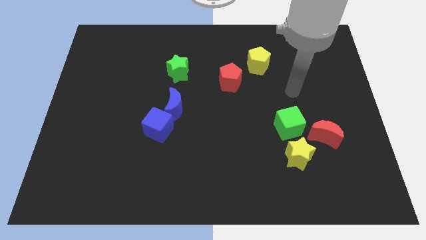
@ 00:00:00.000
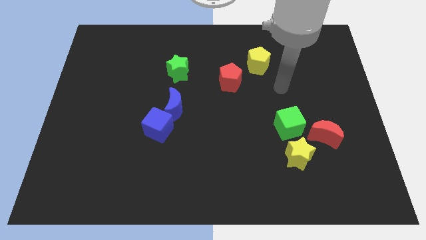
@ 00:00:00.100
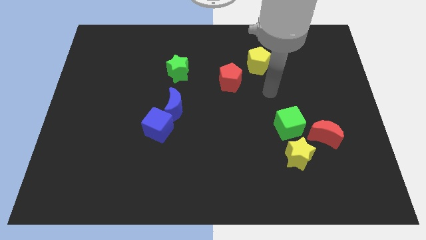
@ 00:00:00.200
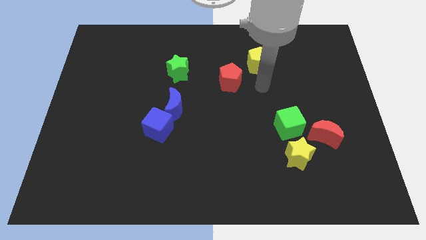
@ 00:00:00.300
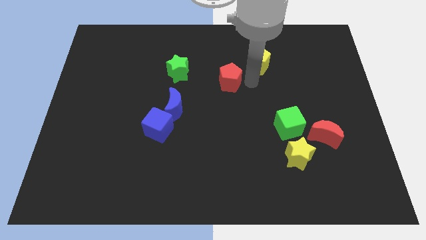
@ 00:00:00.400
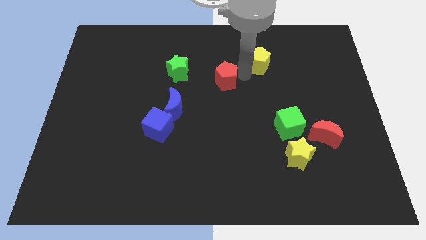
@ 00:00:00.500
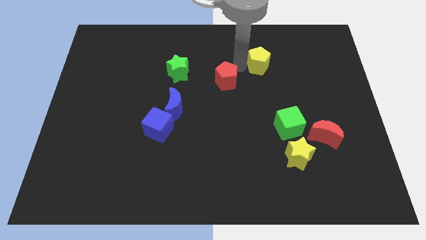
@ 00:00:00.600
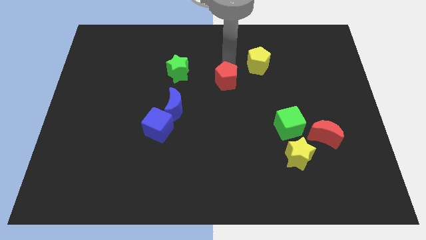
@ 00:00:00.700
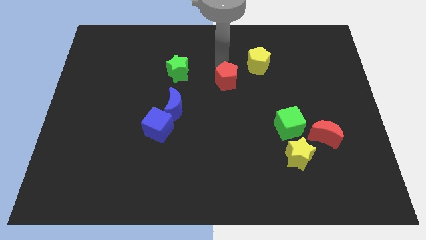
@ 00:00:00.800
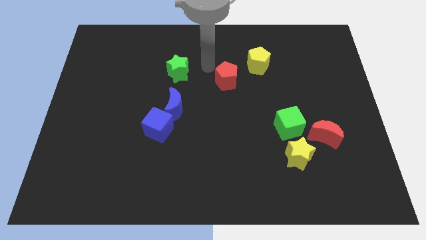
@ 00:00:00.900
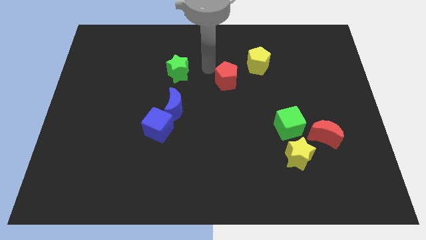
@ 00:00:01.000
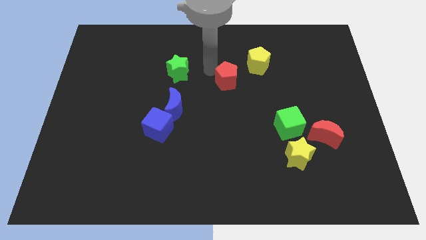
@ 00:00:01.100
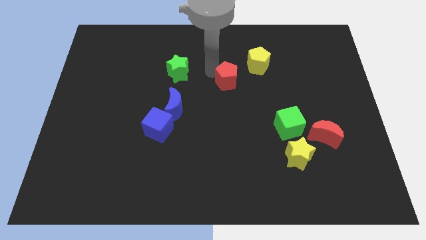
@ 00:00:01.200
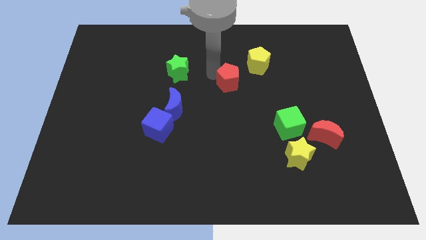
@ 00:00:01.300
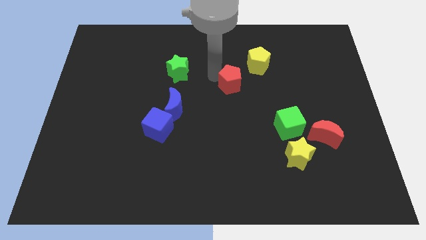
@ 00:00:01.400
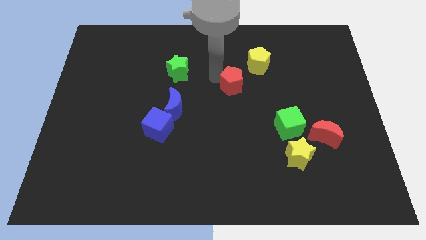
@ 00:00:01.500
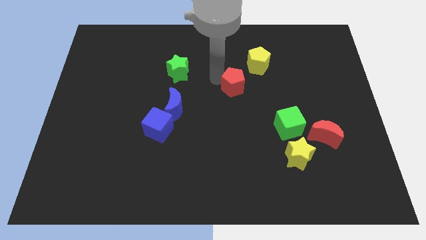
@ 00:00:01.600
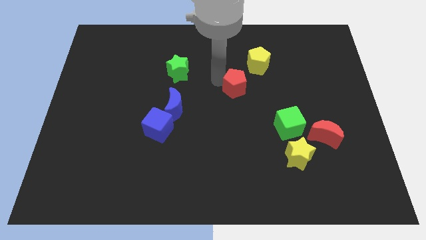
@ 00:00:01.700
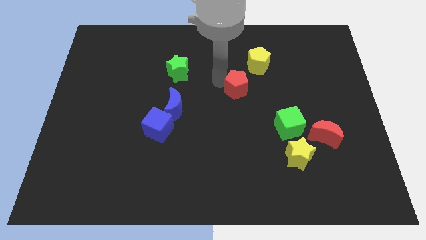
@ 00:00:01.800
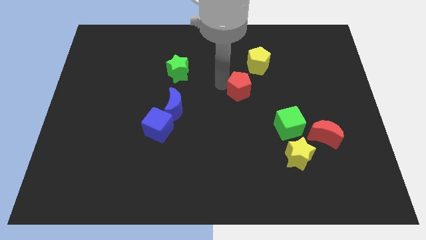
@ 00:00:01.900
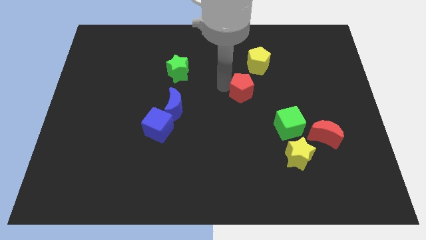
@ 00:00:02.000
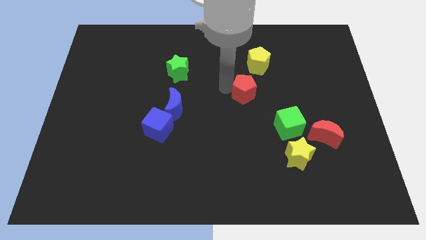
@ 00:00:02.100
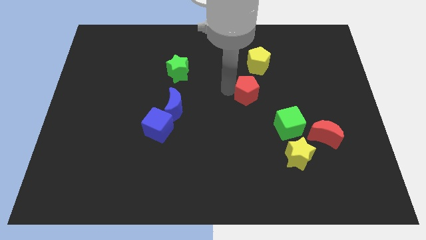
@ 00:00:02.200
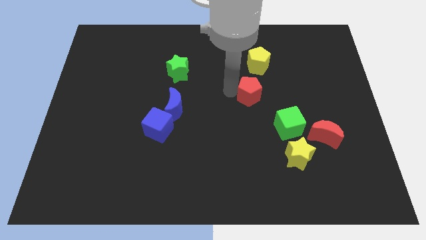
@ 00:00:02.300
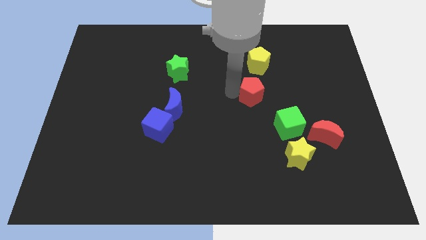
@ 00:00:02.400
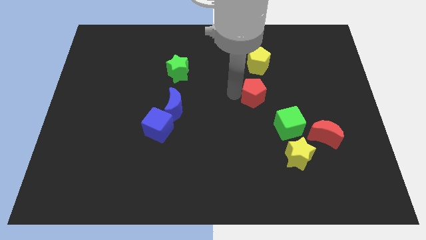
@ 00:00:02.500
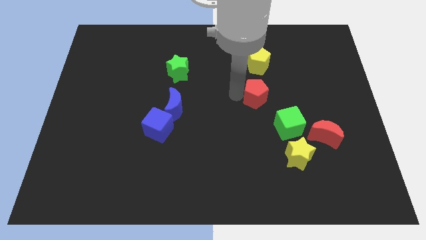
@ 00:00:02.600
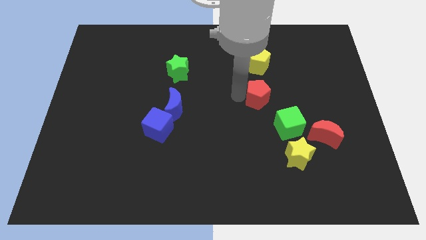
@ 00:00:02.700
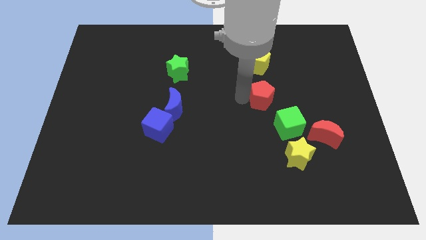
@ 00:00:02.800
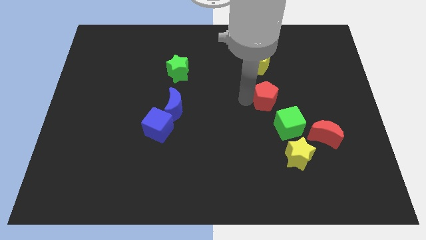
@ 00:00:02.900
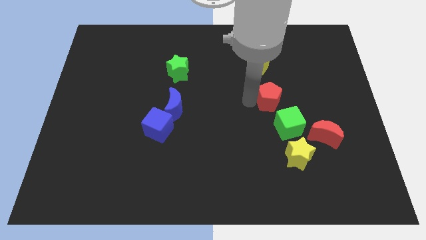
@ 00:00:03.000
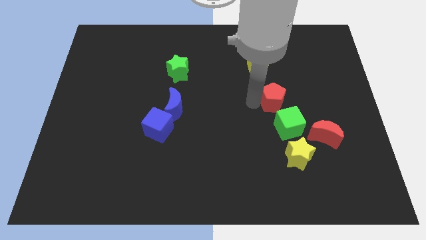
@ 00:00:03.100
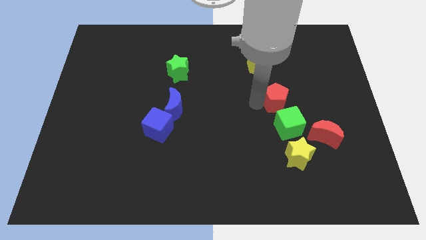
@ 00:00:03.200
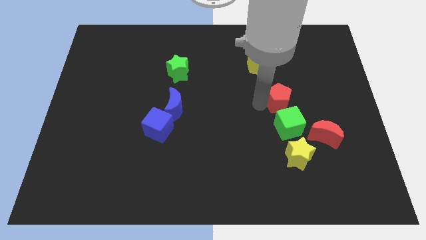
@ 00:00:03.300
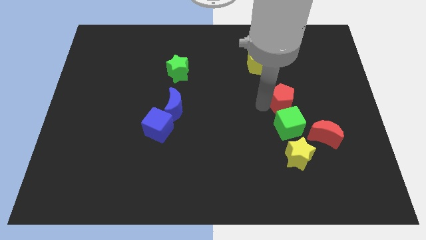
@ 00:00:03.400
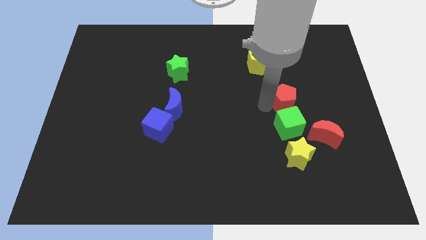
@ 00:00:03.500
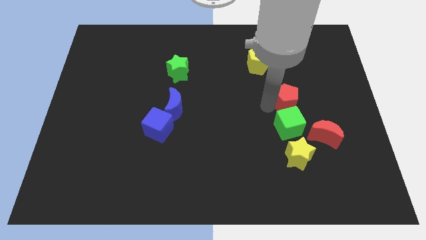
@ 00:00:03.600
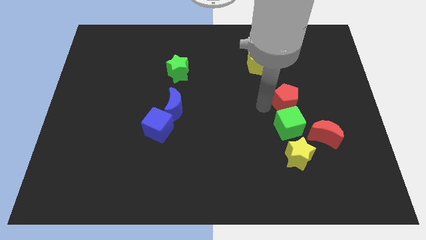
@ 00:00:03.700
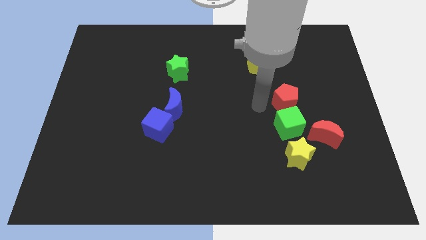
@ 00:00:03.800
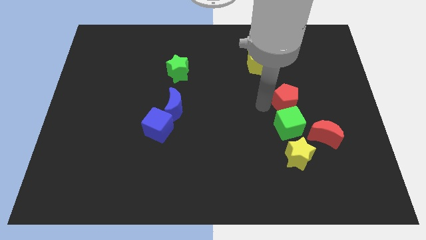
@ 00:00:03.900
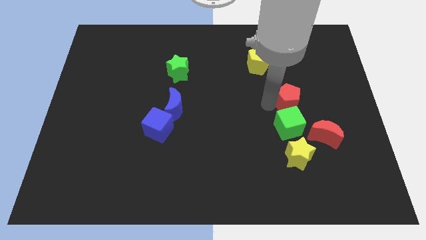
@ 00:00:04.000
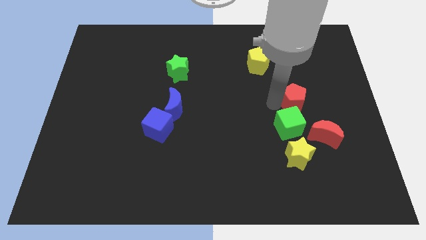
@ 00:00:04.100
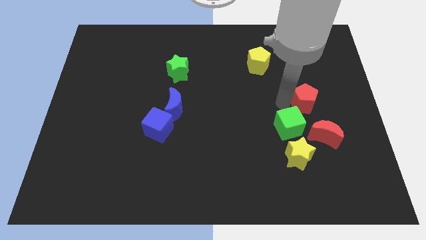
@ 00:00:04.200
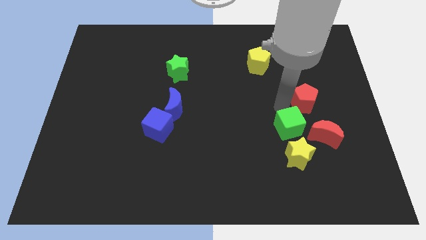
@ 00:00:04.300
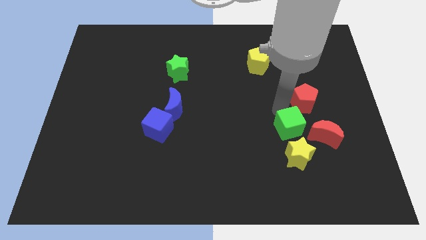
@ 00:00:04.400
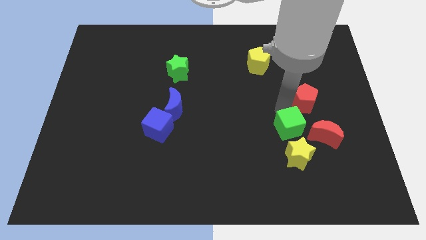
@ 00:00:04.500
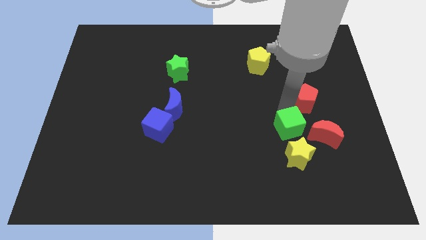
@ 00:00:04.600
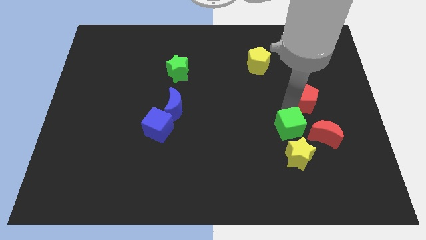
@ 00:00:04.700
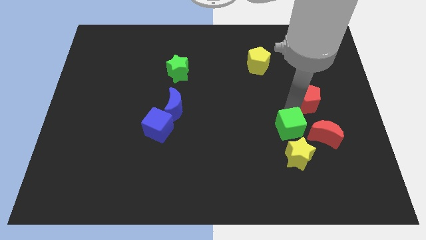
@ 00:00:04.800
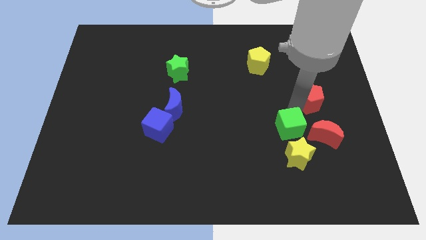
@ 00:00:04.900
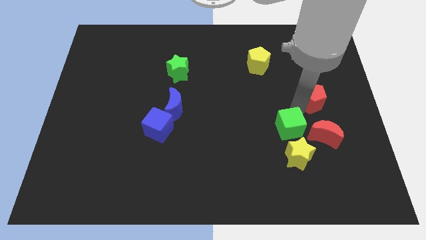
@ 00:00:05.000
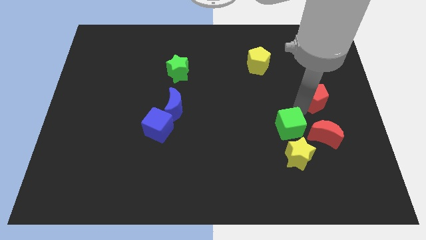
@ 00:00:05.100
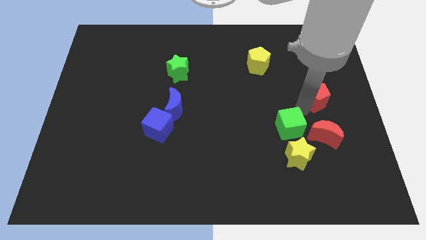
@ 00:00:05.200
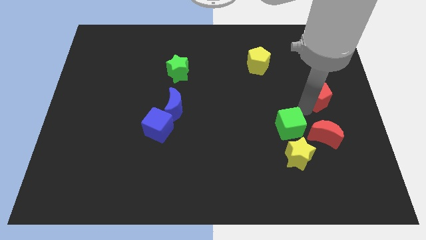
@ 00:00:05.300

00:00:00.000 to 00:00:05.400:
slide the red pentagon to the right side of the board

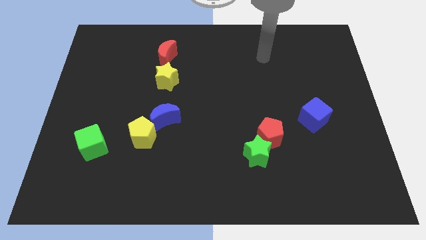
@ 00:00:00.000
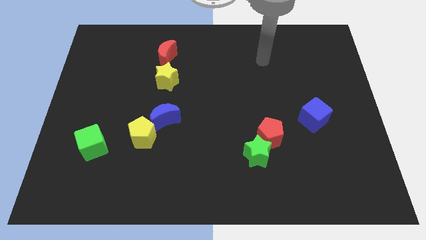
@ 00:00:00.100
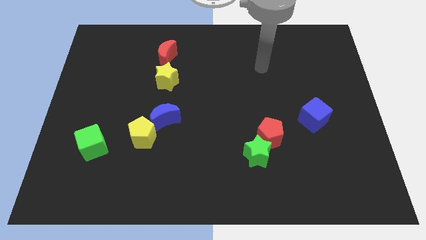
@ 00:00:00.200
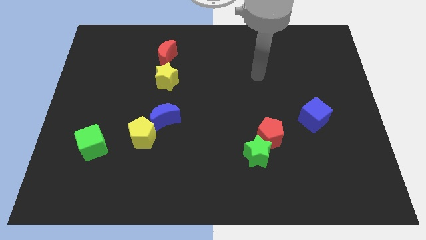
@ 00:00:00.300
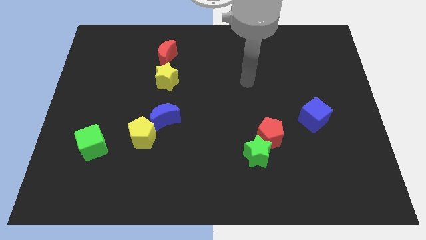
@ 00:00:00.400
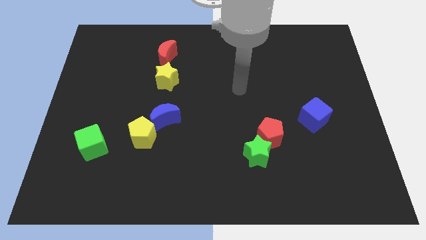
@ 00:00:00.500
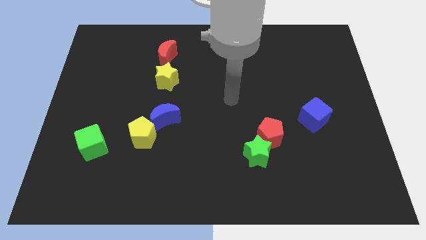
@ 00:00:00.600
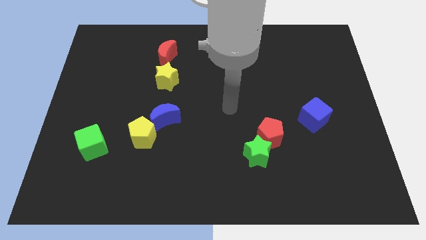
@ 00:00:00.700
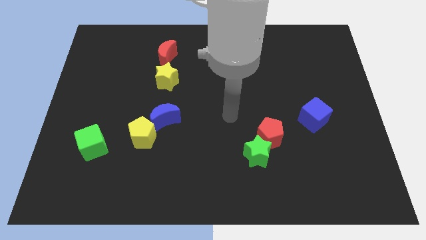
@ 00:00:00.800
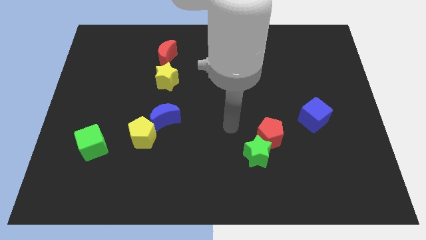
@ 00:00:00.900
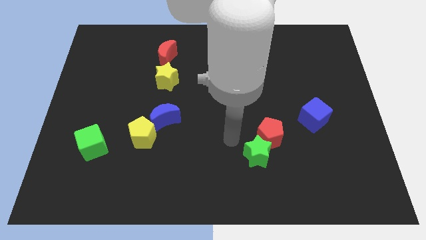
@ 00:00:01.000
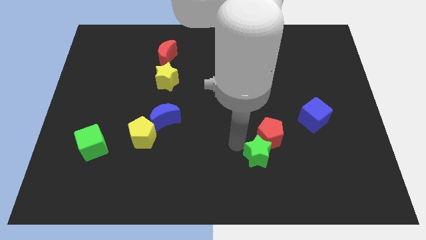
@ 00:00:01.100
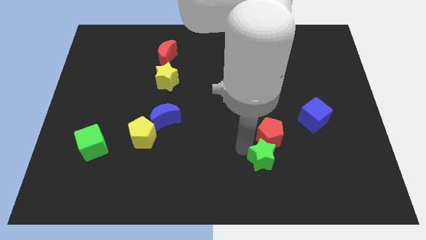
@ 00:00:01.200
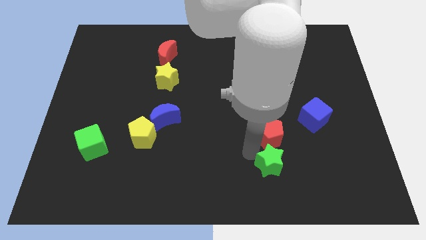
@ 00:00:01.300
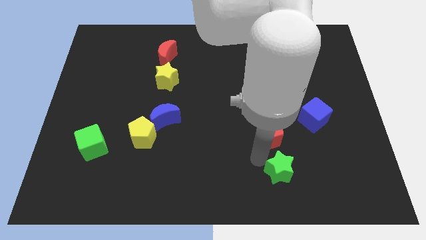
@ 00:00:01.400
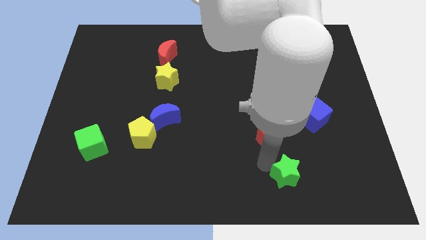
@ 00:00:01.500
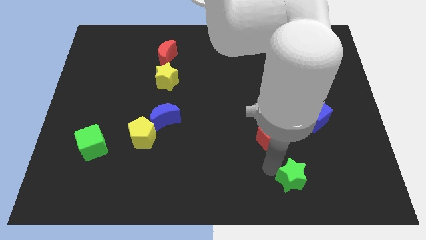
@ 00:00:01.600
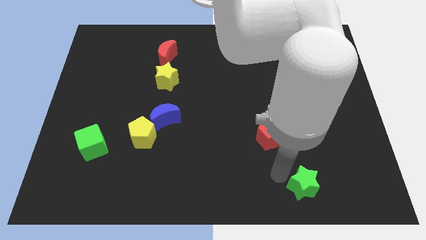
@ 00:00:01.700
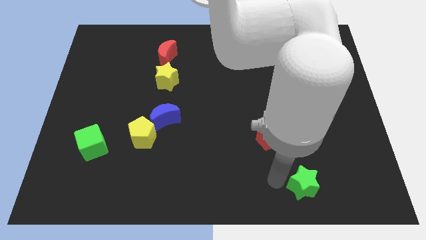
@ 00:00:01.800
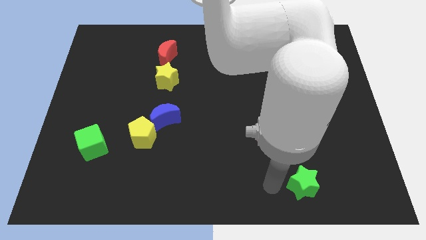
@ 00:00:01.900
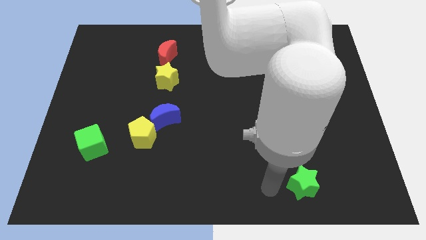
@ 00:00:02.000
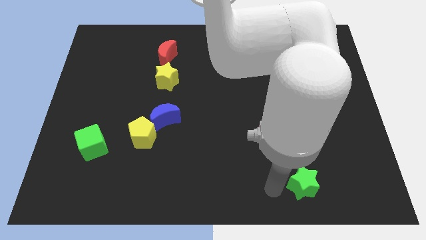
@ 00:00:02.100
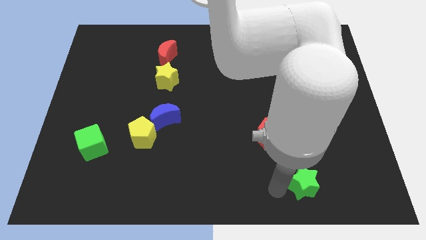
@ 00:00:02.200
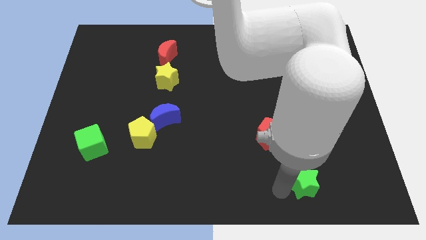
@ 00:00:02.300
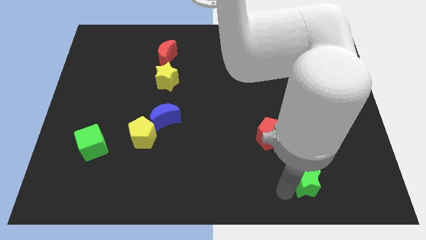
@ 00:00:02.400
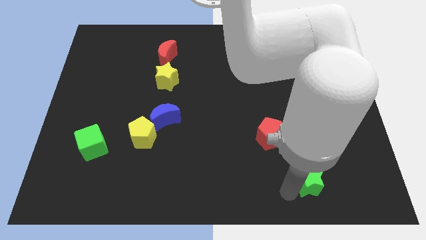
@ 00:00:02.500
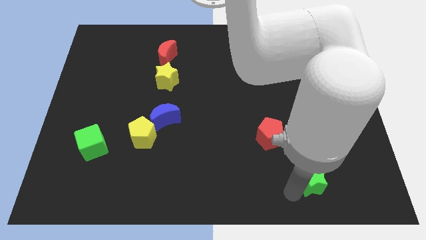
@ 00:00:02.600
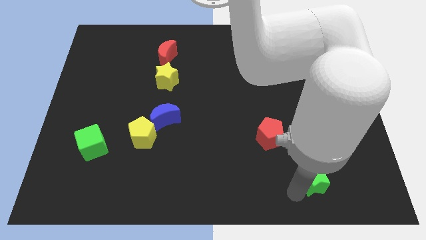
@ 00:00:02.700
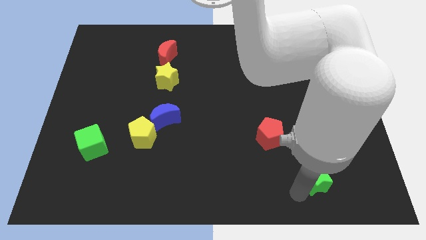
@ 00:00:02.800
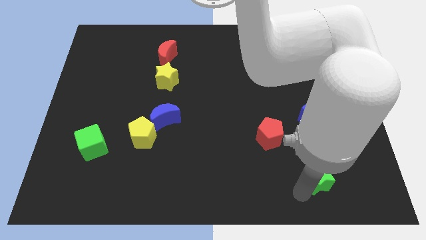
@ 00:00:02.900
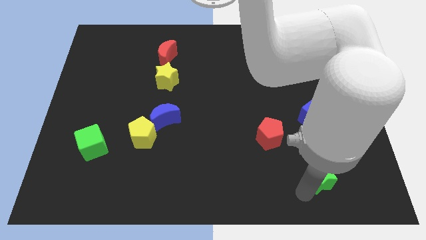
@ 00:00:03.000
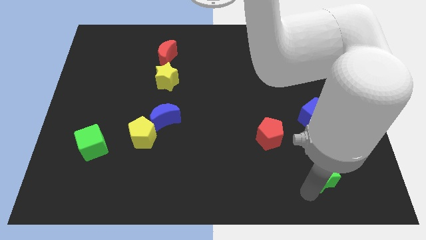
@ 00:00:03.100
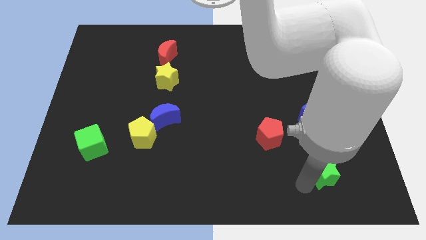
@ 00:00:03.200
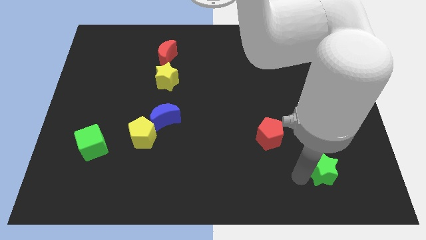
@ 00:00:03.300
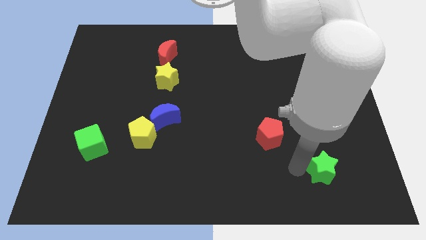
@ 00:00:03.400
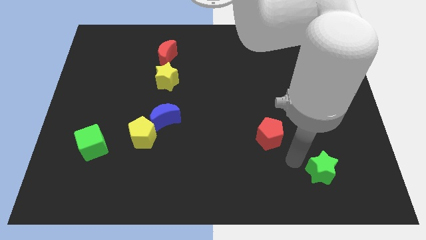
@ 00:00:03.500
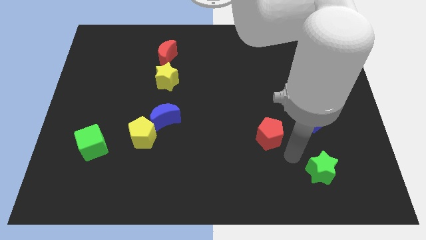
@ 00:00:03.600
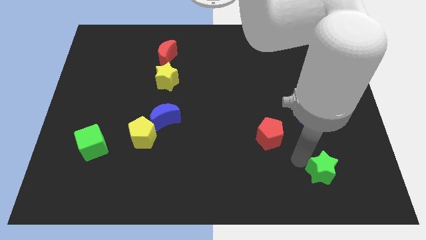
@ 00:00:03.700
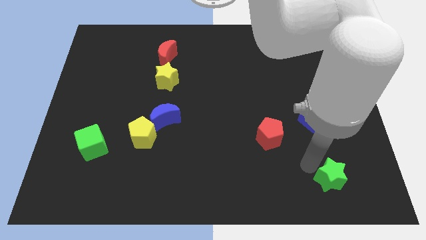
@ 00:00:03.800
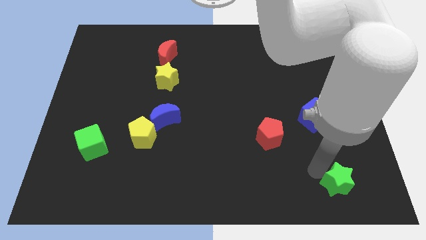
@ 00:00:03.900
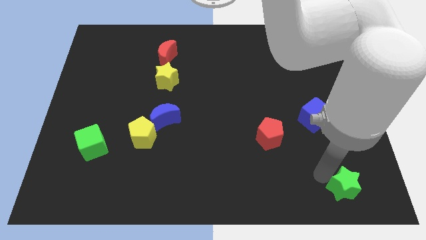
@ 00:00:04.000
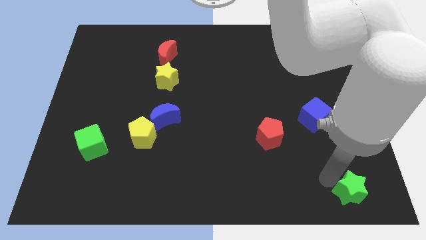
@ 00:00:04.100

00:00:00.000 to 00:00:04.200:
put the green star to the lower right corner
